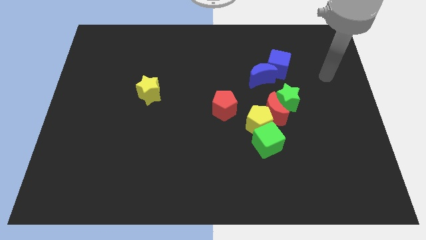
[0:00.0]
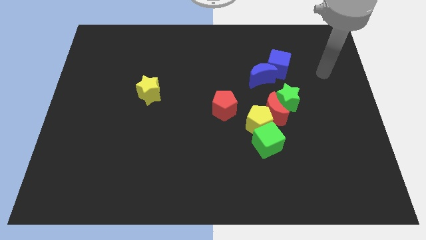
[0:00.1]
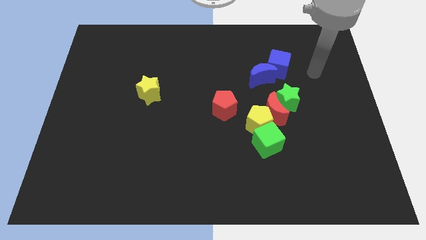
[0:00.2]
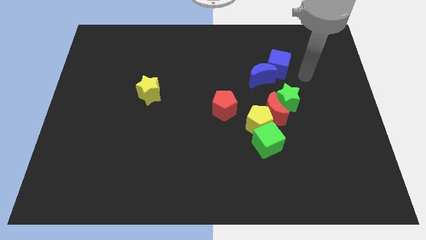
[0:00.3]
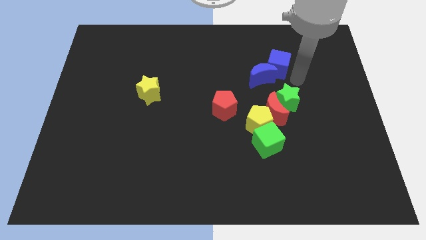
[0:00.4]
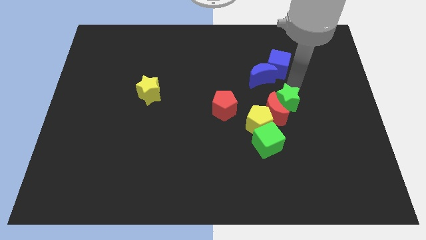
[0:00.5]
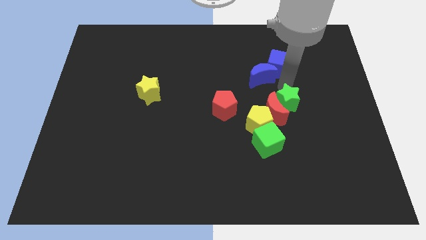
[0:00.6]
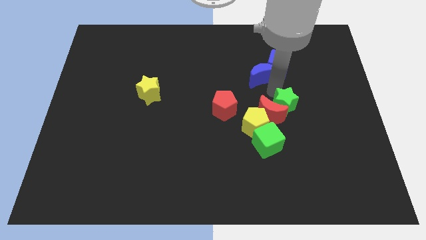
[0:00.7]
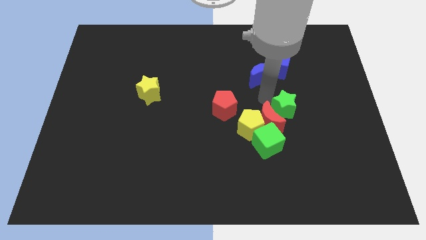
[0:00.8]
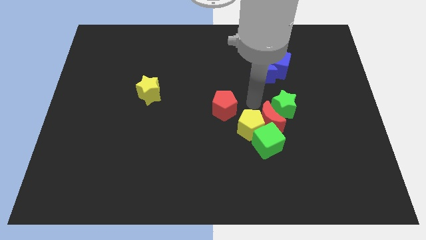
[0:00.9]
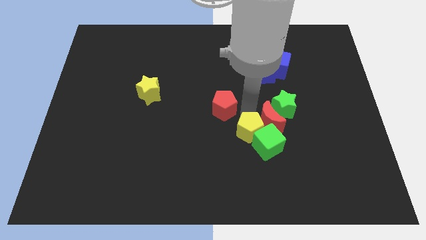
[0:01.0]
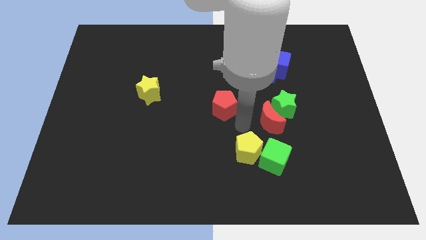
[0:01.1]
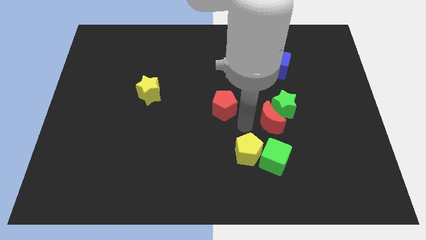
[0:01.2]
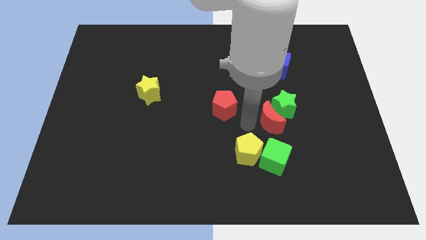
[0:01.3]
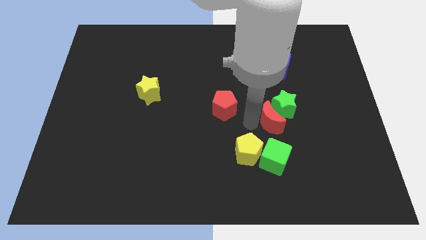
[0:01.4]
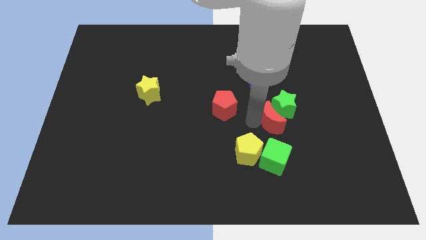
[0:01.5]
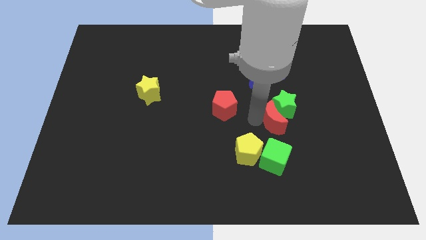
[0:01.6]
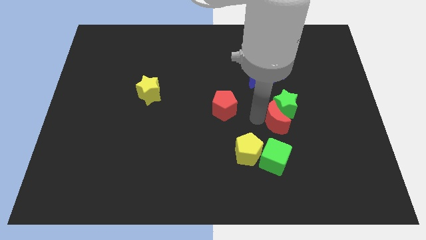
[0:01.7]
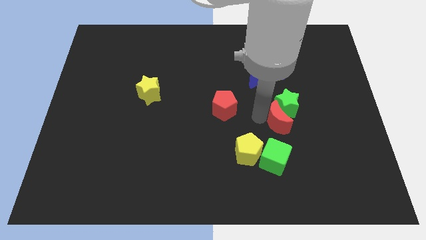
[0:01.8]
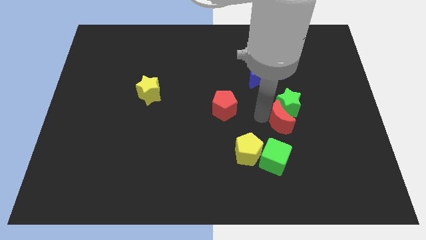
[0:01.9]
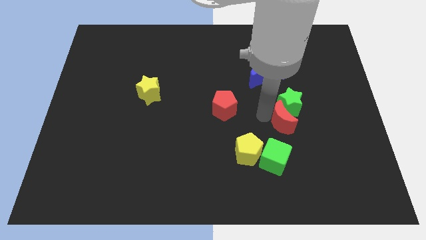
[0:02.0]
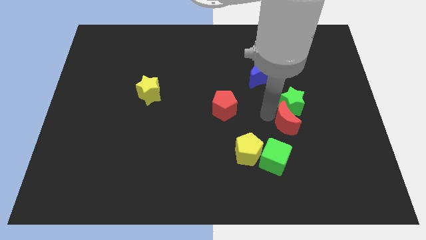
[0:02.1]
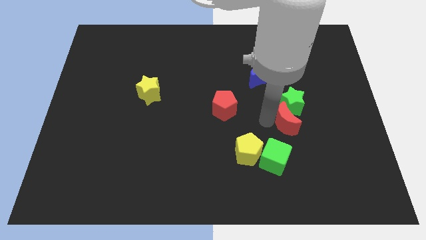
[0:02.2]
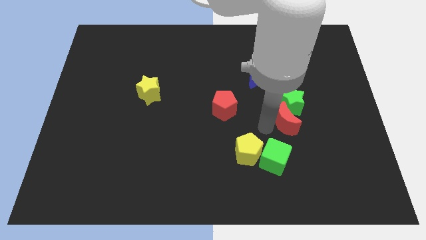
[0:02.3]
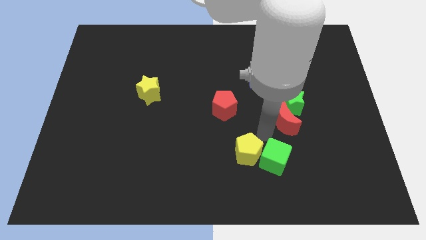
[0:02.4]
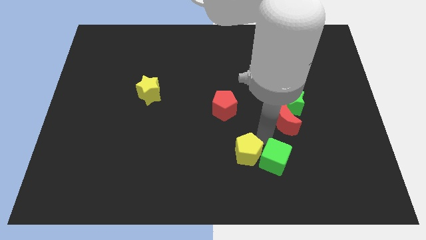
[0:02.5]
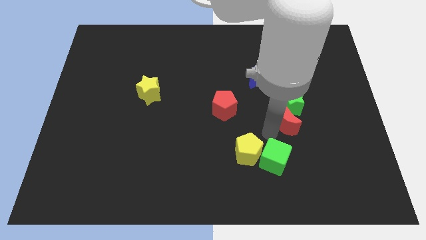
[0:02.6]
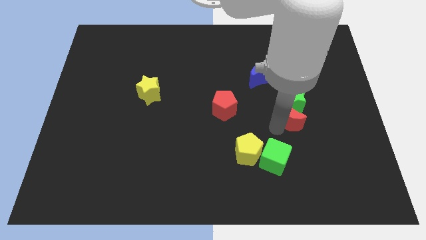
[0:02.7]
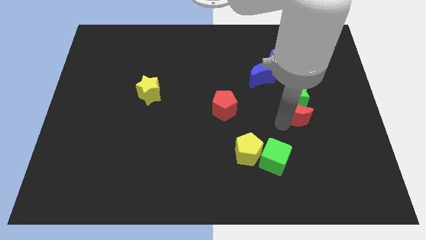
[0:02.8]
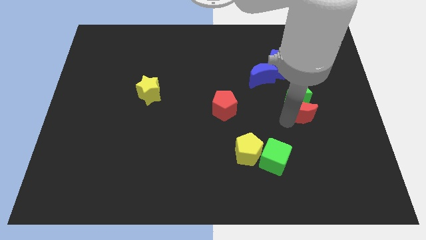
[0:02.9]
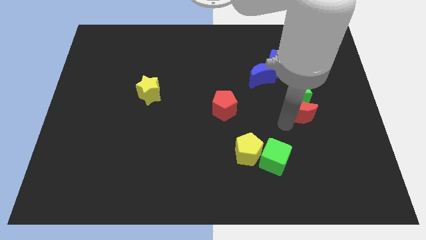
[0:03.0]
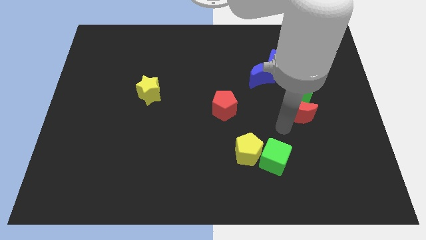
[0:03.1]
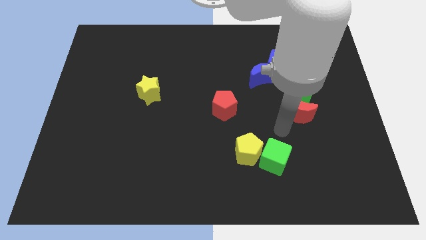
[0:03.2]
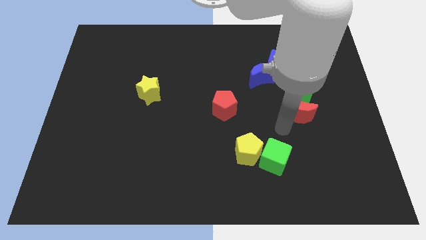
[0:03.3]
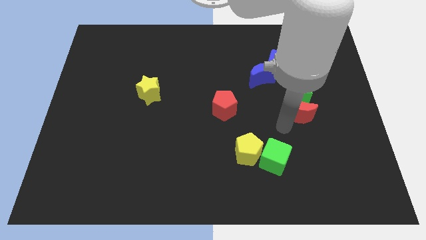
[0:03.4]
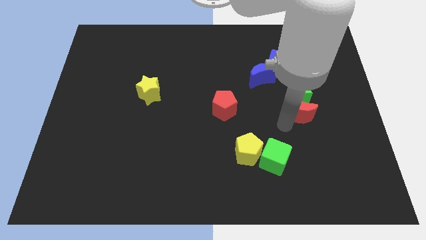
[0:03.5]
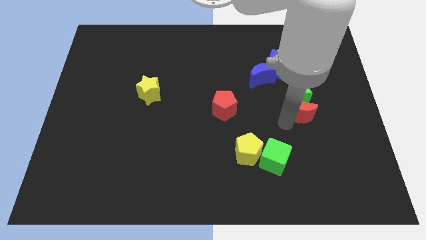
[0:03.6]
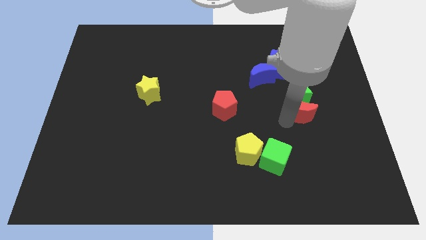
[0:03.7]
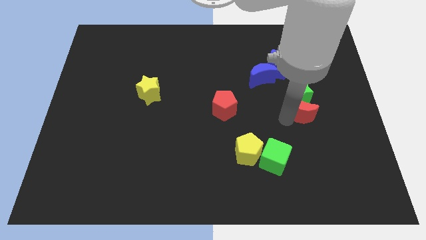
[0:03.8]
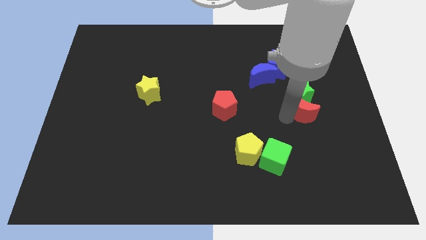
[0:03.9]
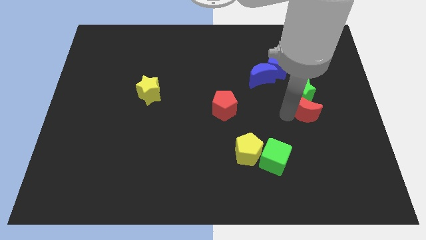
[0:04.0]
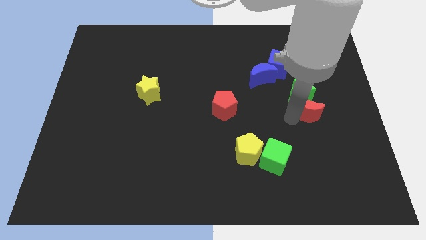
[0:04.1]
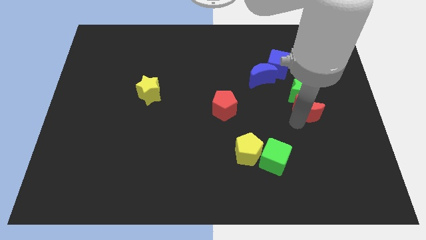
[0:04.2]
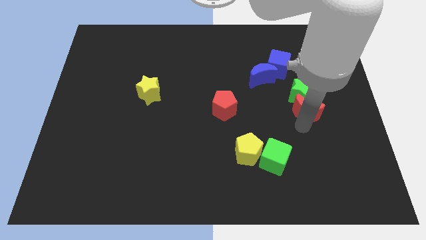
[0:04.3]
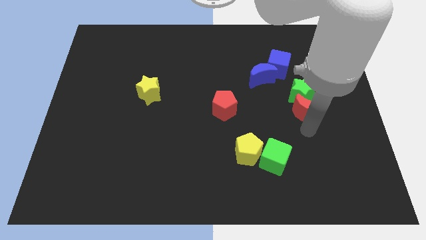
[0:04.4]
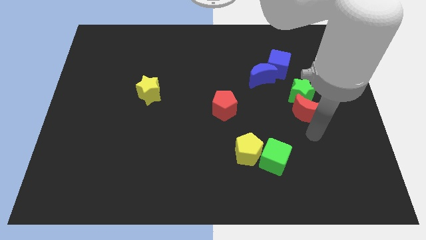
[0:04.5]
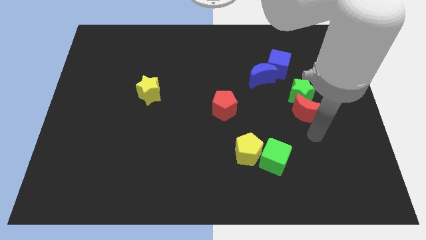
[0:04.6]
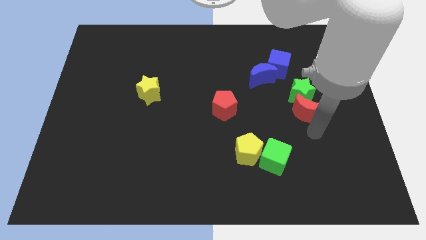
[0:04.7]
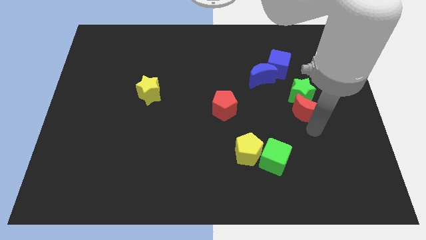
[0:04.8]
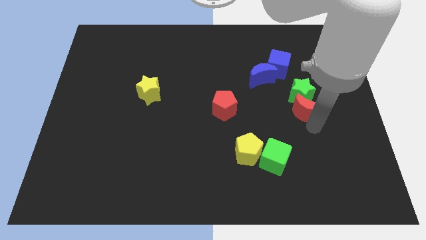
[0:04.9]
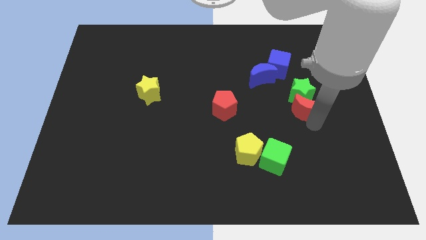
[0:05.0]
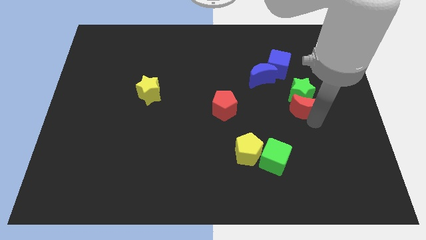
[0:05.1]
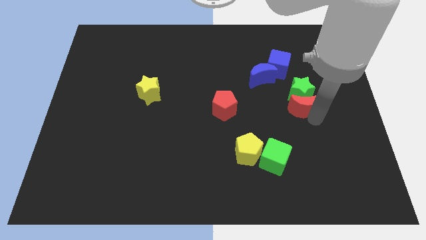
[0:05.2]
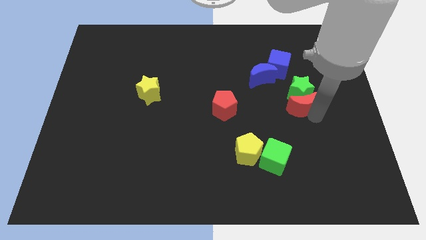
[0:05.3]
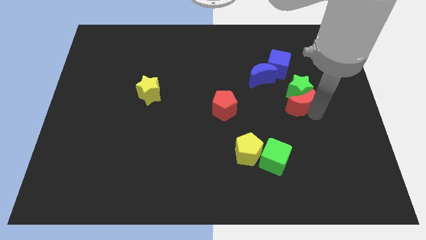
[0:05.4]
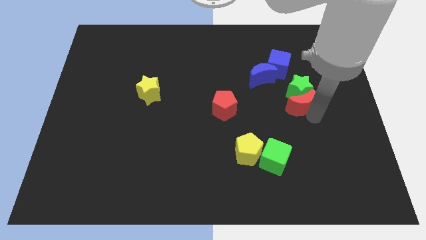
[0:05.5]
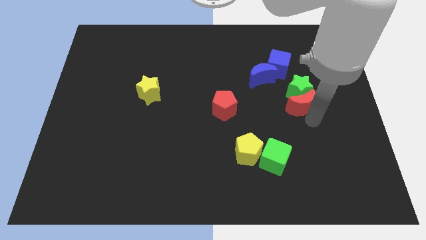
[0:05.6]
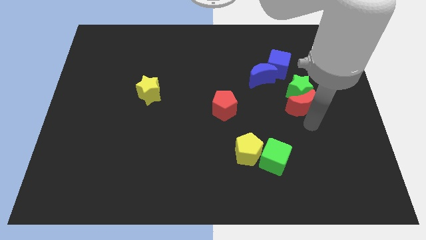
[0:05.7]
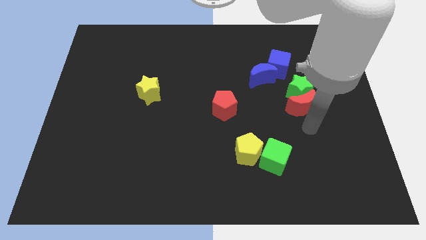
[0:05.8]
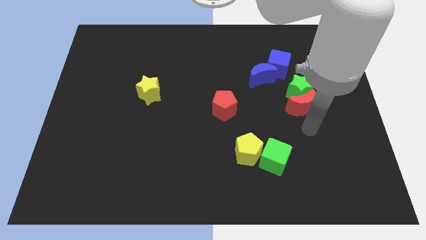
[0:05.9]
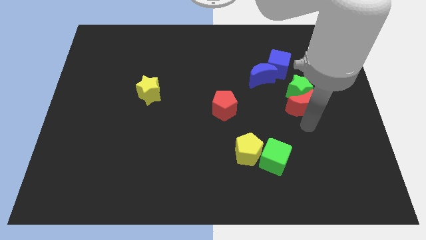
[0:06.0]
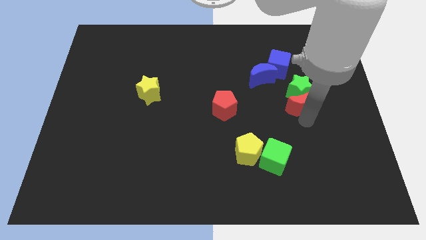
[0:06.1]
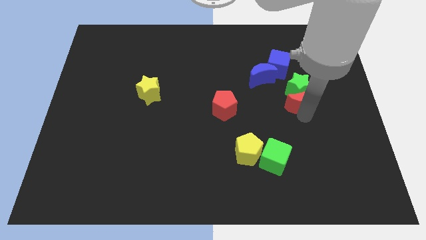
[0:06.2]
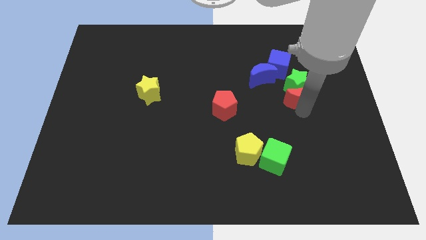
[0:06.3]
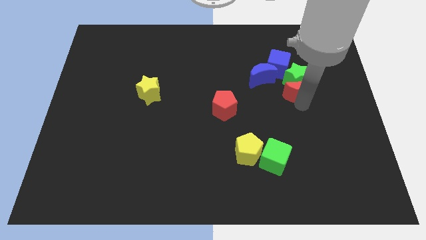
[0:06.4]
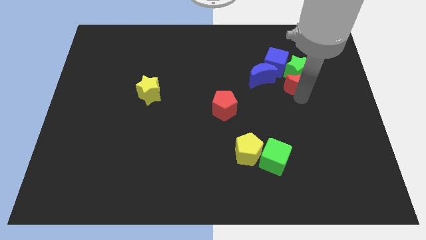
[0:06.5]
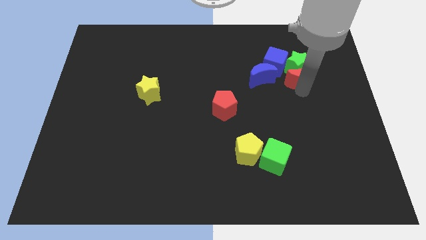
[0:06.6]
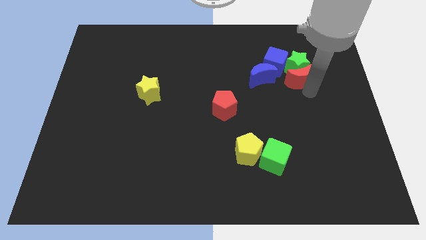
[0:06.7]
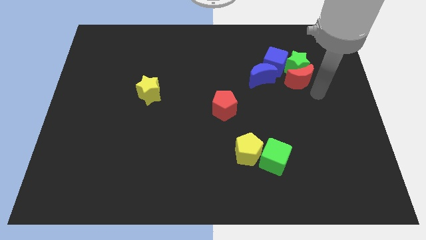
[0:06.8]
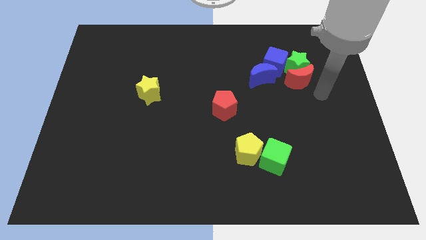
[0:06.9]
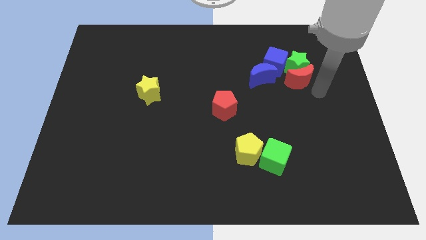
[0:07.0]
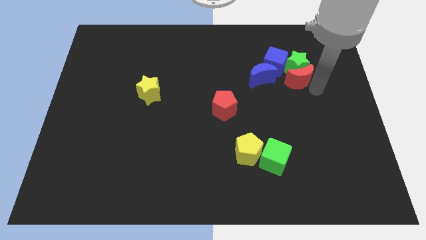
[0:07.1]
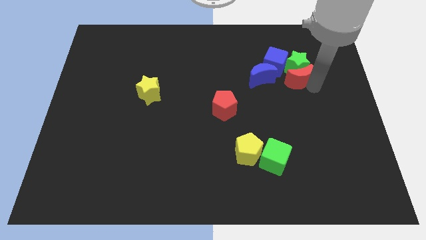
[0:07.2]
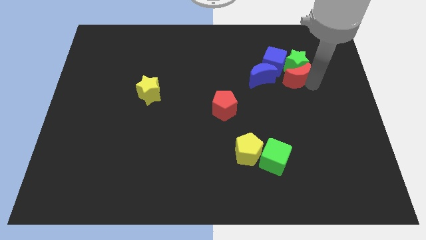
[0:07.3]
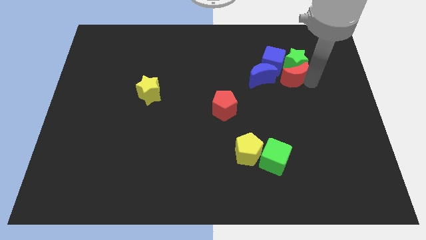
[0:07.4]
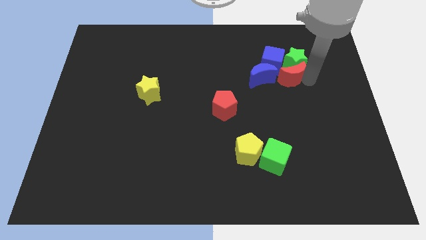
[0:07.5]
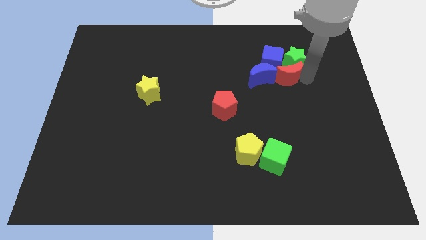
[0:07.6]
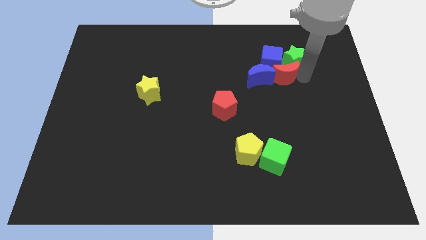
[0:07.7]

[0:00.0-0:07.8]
slide the red moon towards the blue cube
